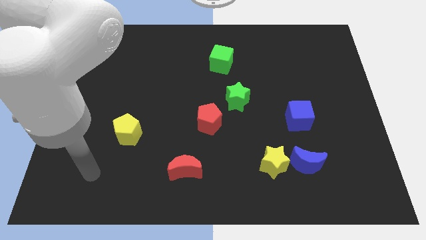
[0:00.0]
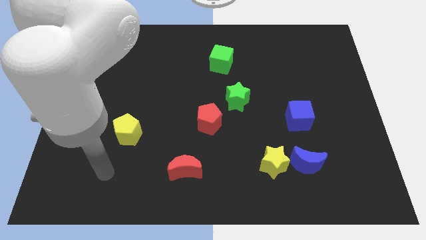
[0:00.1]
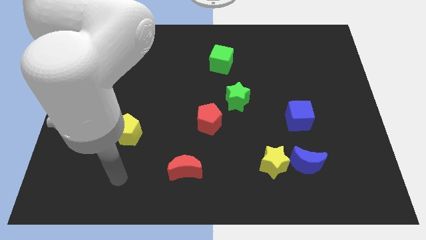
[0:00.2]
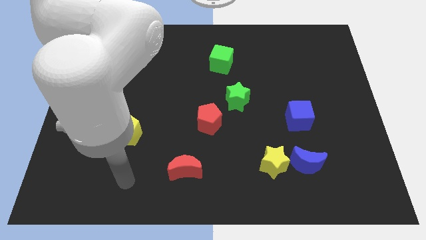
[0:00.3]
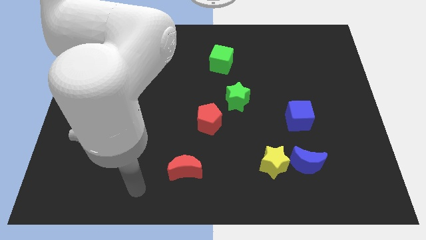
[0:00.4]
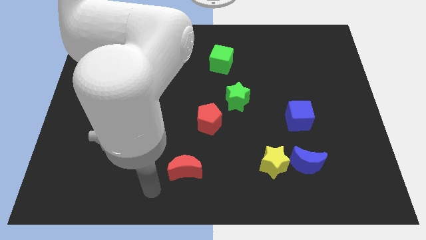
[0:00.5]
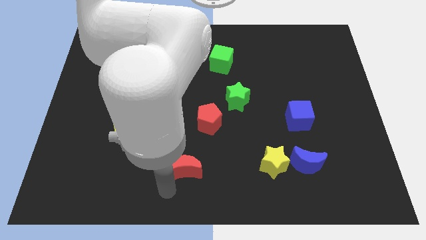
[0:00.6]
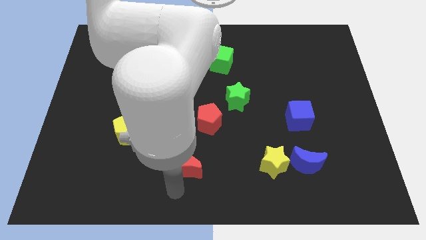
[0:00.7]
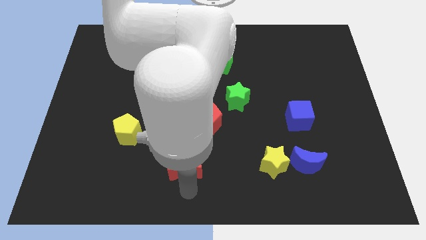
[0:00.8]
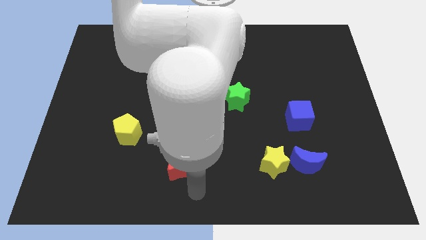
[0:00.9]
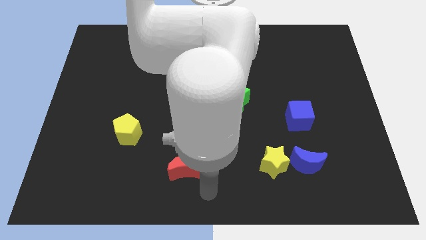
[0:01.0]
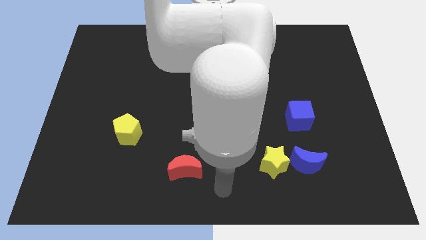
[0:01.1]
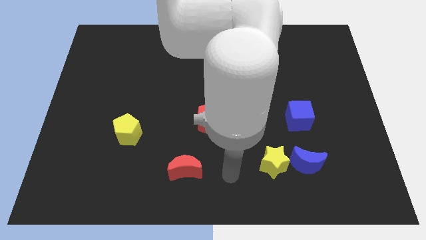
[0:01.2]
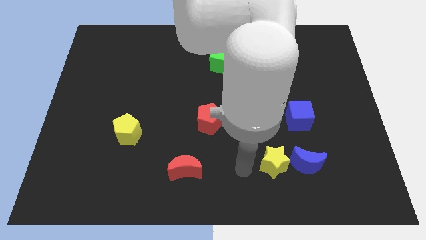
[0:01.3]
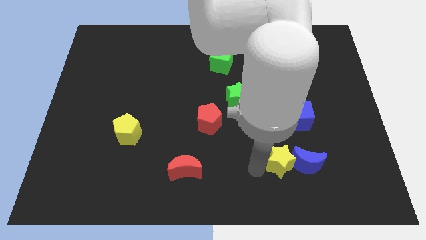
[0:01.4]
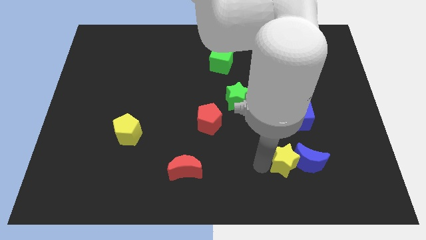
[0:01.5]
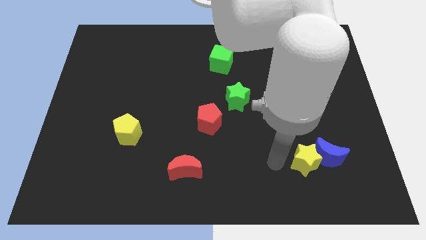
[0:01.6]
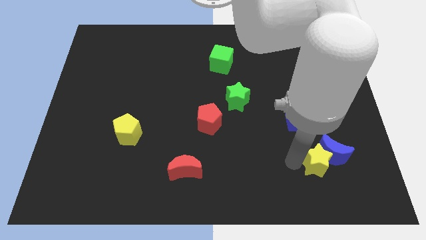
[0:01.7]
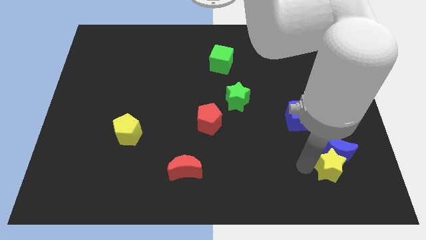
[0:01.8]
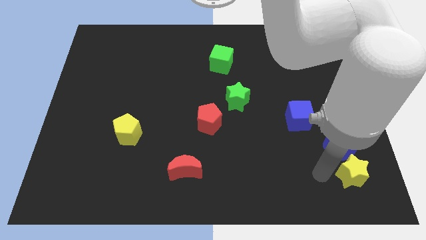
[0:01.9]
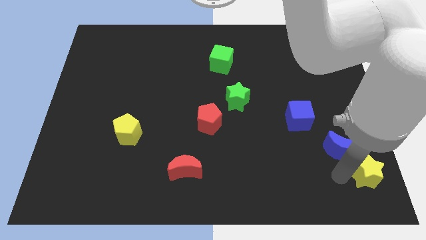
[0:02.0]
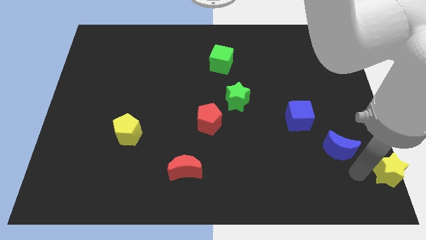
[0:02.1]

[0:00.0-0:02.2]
move the blue moon away from the yellow star

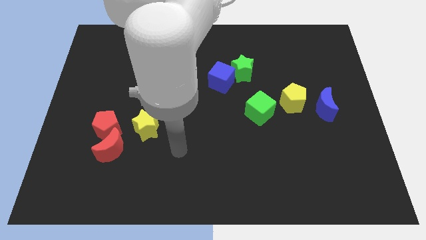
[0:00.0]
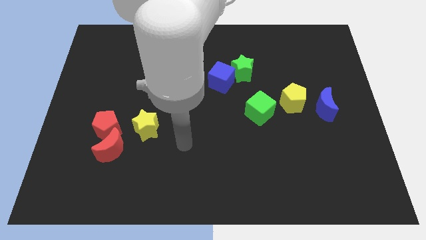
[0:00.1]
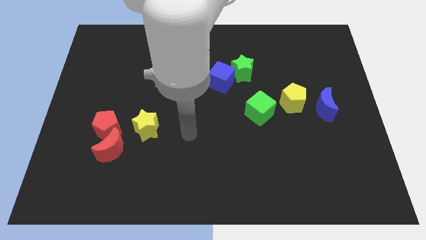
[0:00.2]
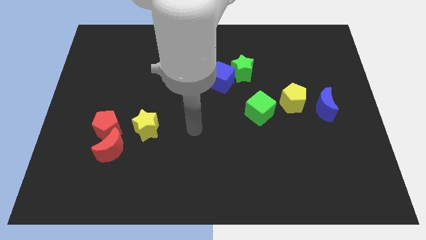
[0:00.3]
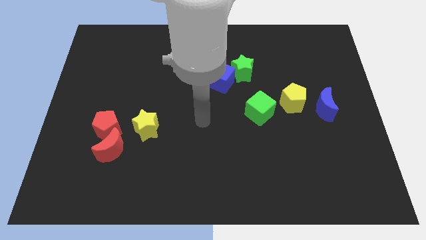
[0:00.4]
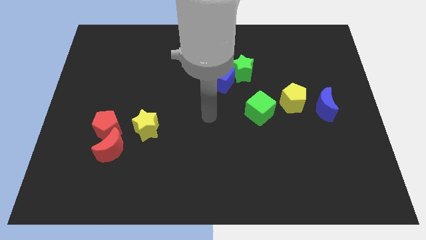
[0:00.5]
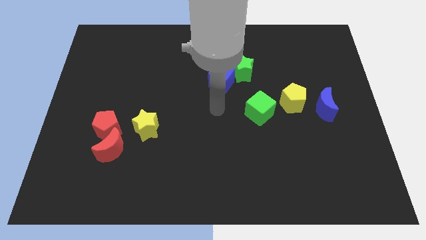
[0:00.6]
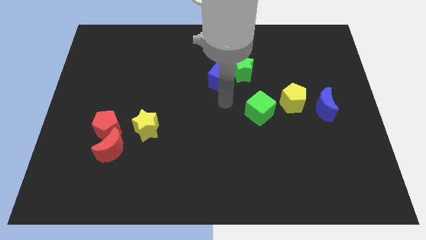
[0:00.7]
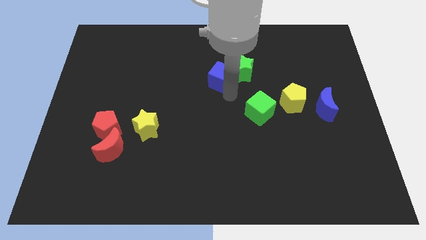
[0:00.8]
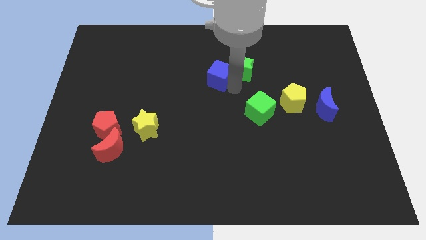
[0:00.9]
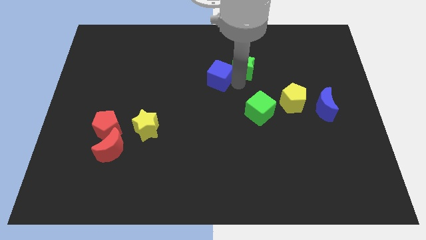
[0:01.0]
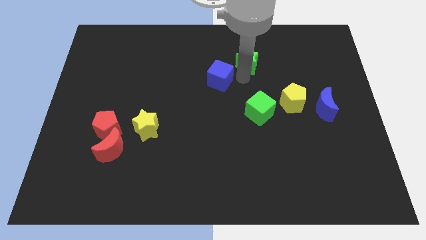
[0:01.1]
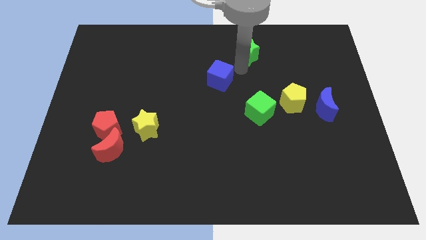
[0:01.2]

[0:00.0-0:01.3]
move the blue cube away from the green star

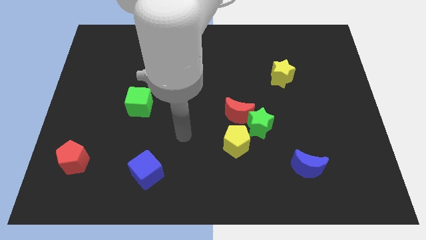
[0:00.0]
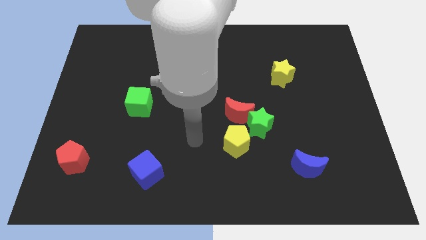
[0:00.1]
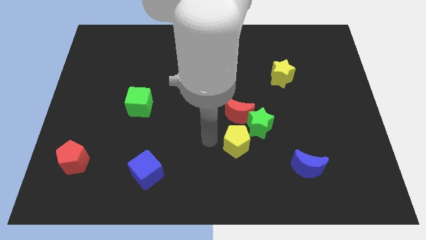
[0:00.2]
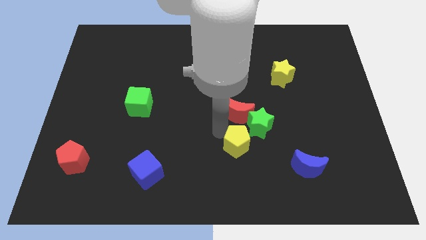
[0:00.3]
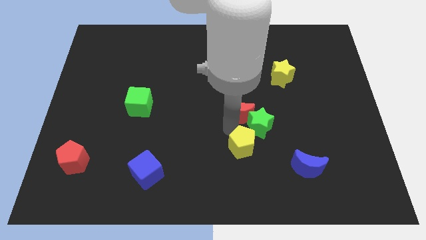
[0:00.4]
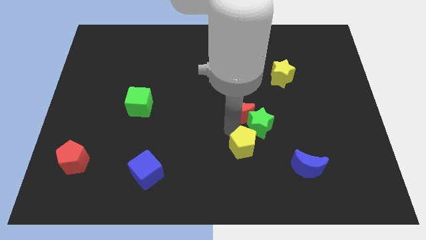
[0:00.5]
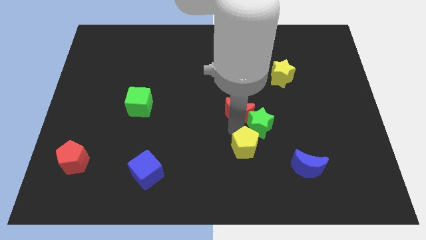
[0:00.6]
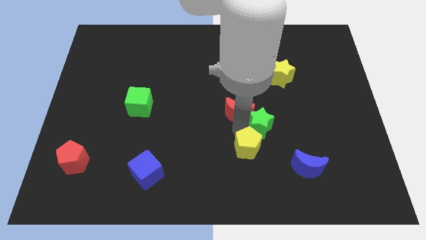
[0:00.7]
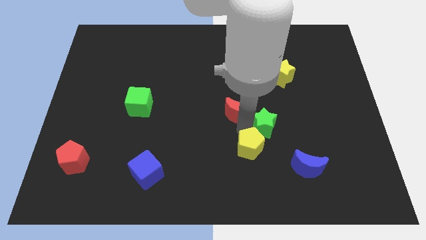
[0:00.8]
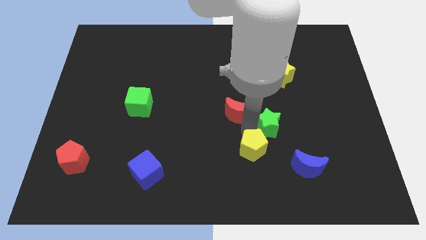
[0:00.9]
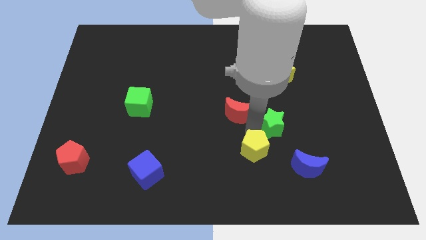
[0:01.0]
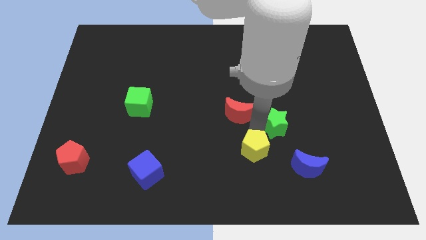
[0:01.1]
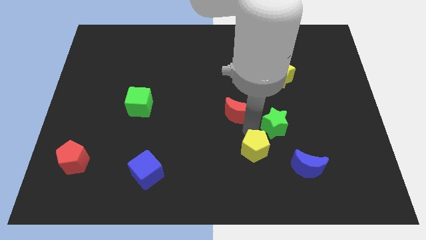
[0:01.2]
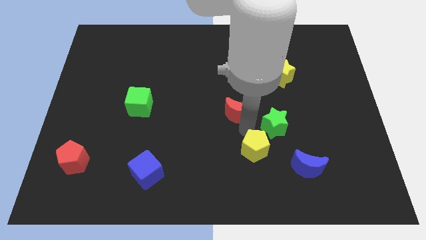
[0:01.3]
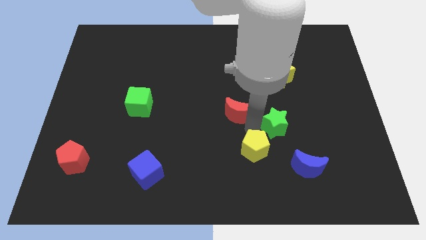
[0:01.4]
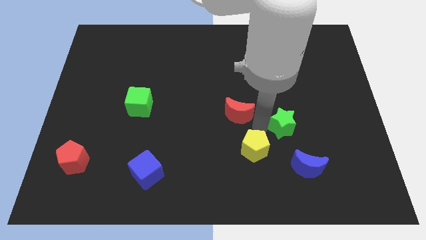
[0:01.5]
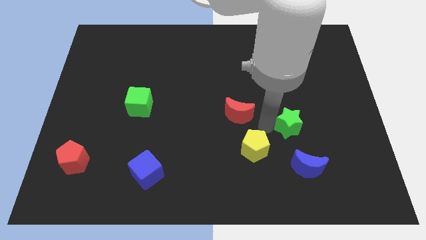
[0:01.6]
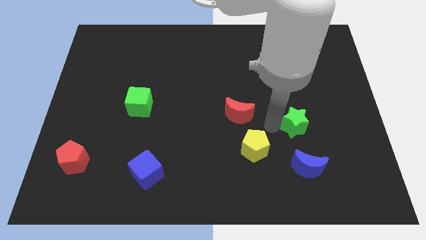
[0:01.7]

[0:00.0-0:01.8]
pull the green star apart from the red moon and yellow pentagon

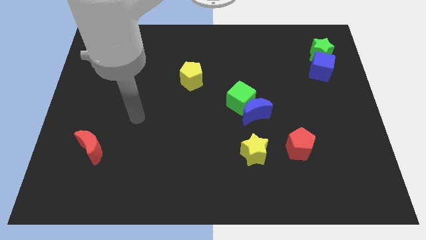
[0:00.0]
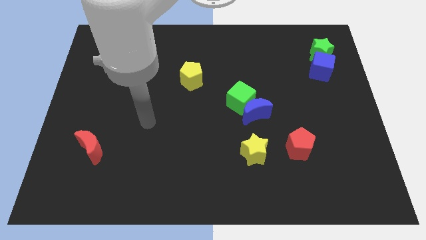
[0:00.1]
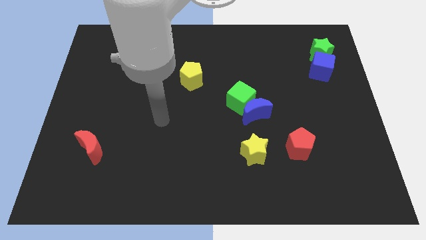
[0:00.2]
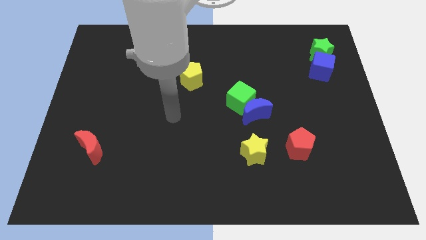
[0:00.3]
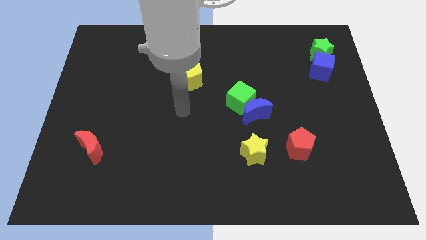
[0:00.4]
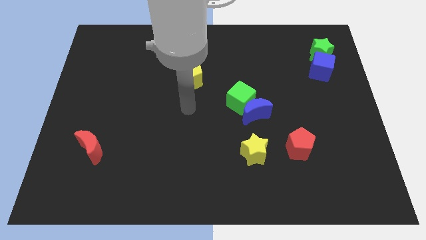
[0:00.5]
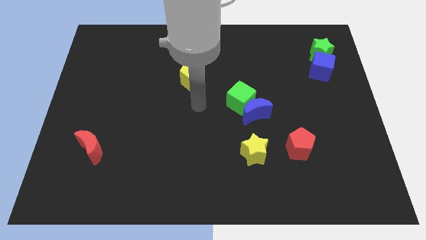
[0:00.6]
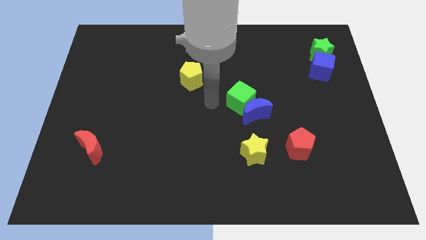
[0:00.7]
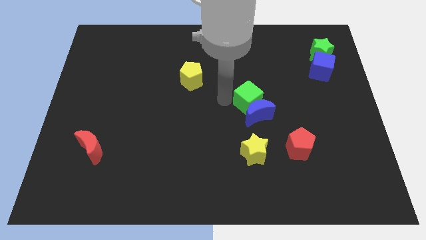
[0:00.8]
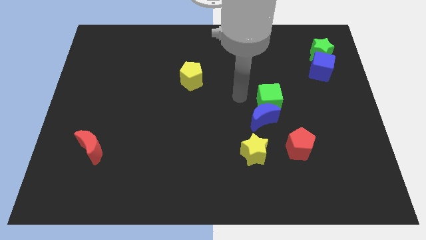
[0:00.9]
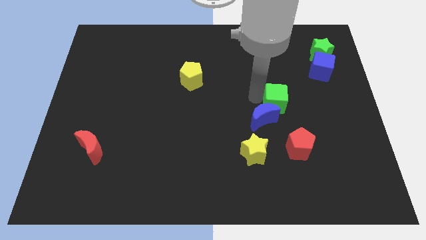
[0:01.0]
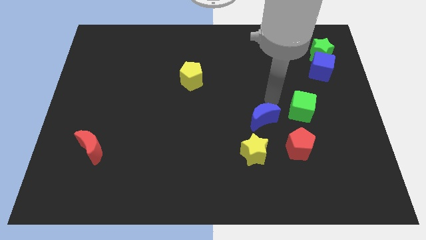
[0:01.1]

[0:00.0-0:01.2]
move the blue moon away from the green cube

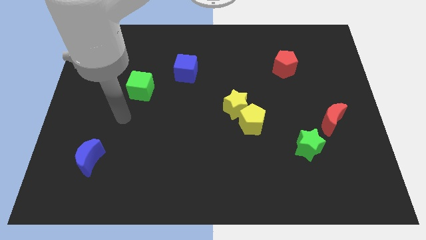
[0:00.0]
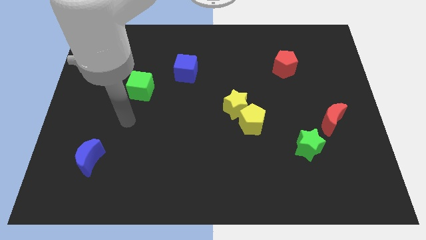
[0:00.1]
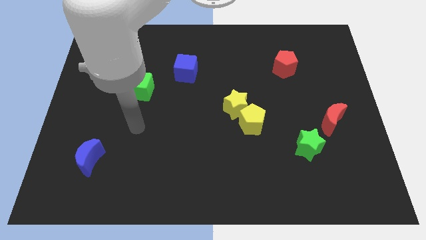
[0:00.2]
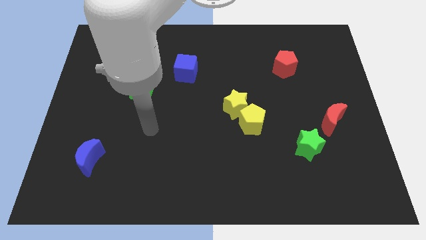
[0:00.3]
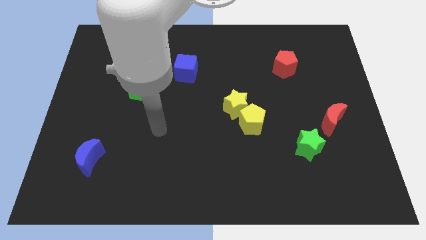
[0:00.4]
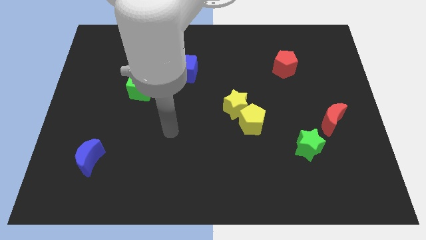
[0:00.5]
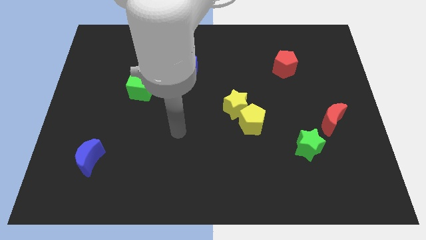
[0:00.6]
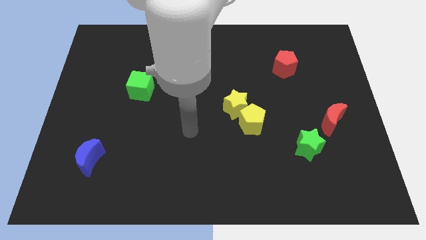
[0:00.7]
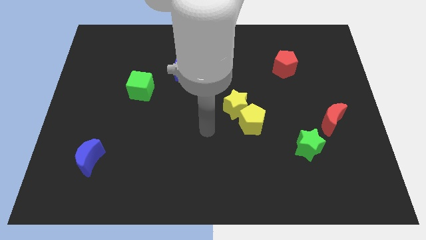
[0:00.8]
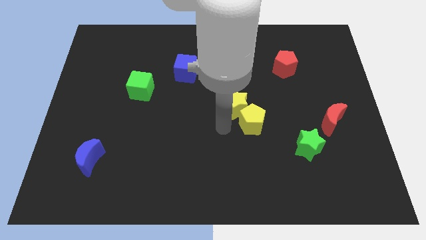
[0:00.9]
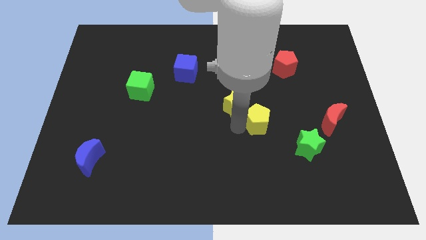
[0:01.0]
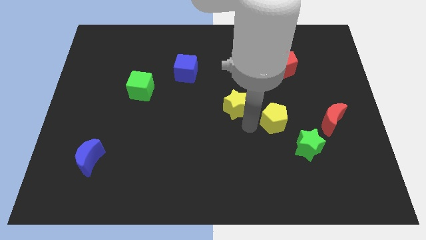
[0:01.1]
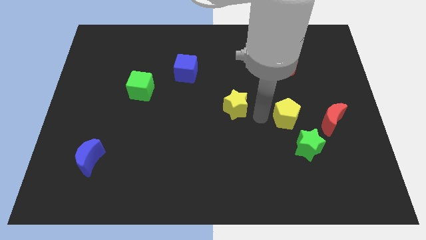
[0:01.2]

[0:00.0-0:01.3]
move the yellow star away from the yellow pentagon

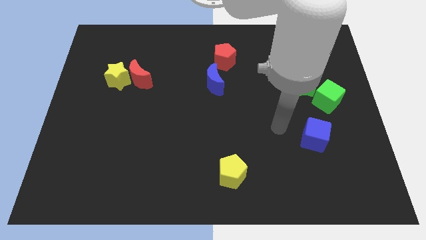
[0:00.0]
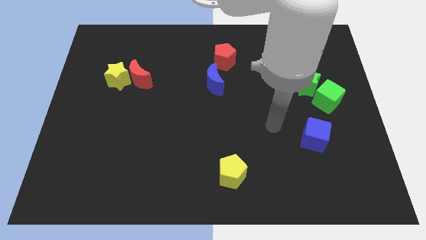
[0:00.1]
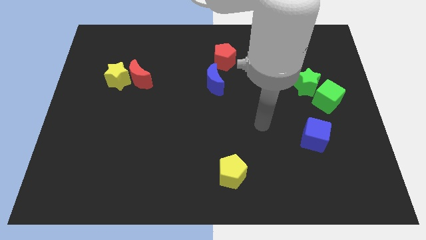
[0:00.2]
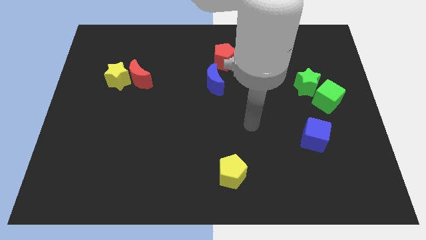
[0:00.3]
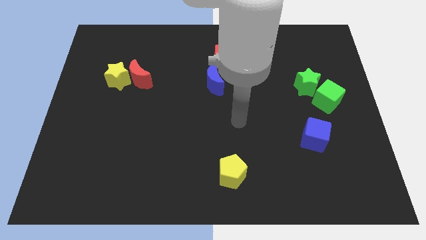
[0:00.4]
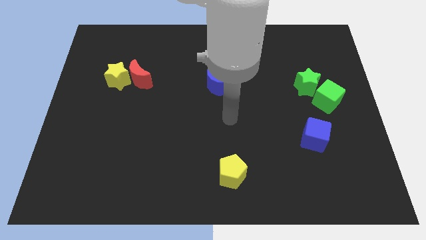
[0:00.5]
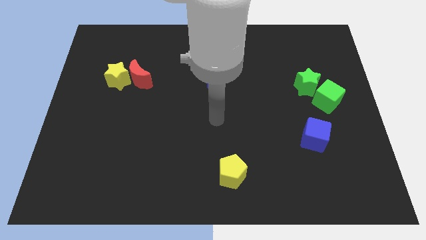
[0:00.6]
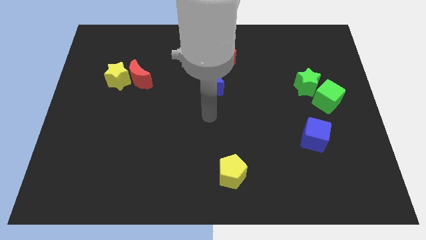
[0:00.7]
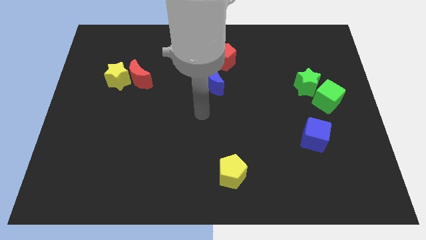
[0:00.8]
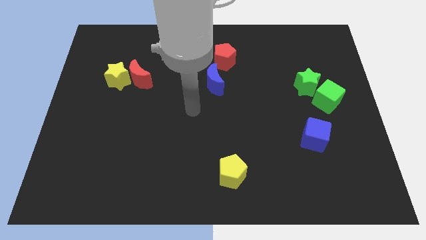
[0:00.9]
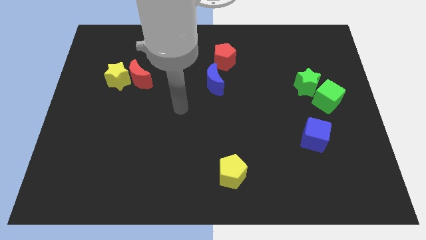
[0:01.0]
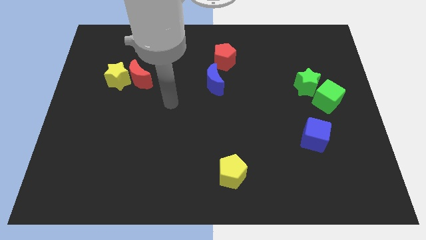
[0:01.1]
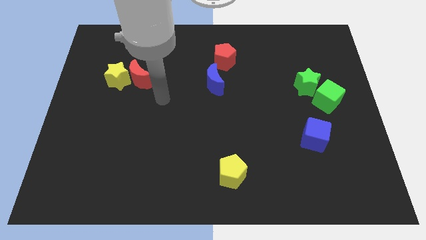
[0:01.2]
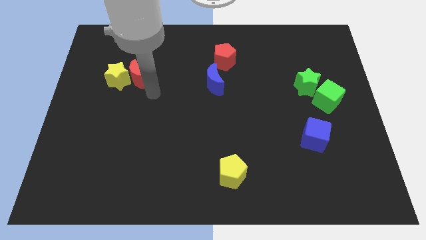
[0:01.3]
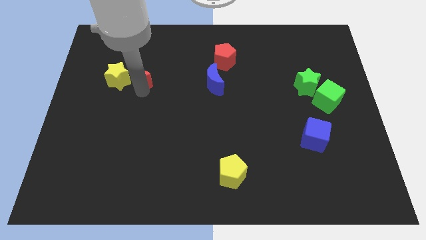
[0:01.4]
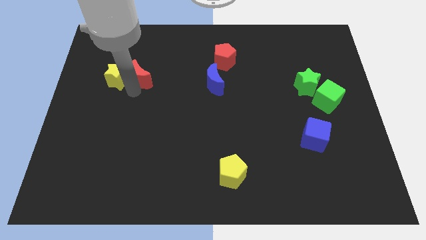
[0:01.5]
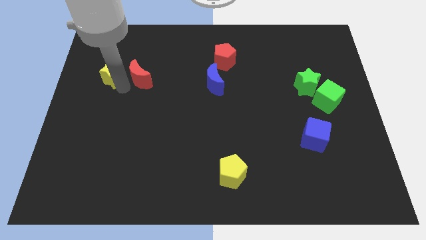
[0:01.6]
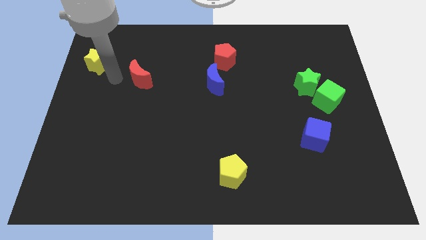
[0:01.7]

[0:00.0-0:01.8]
separate the red moon from the yellow star
